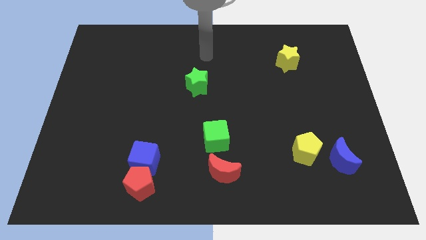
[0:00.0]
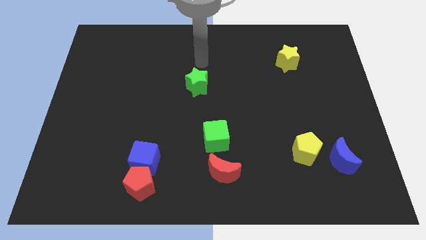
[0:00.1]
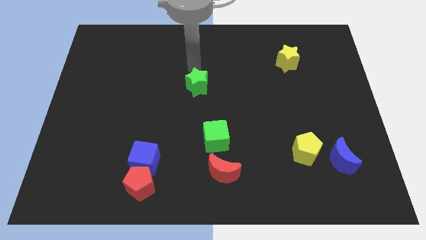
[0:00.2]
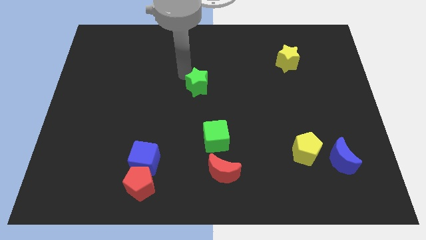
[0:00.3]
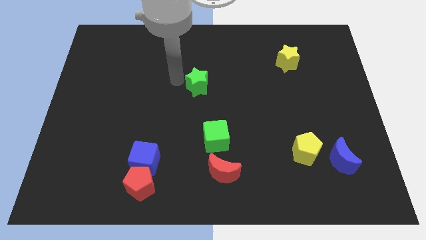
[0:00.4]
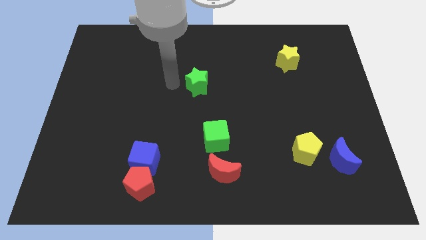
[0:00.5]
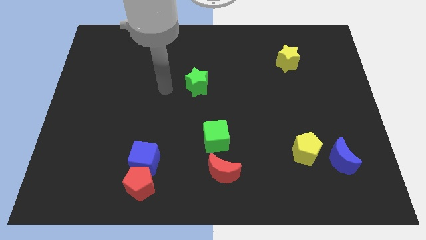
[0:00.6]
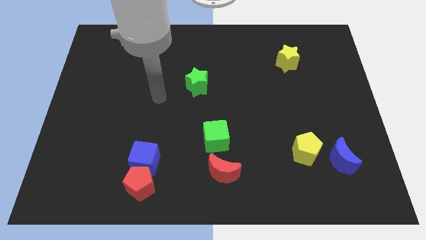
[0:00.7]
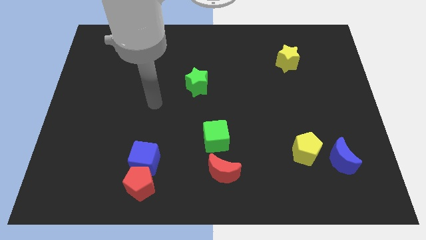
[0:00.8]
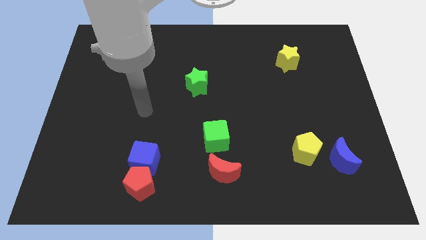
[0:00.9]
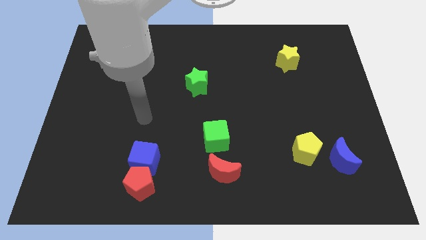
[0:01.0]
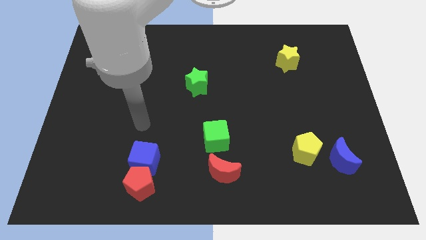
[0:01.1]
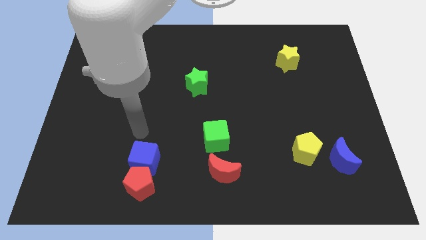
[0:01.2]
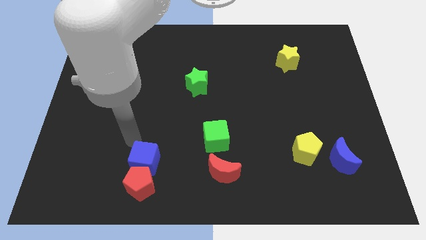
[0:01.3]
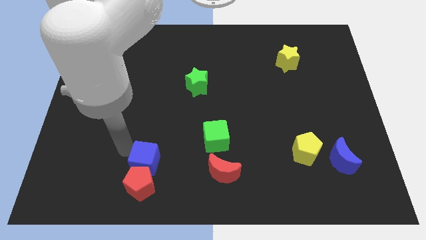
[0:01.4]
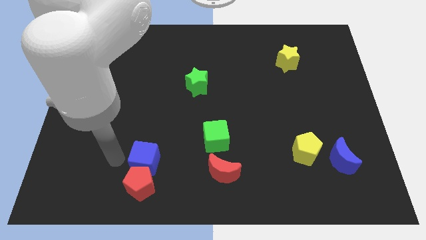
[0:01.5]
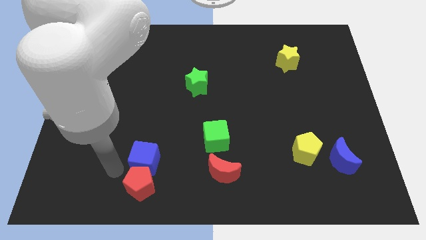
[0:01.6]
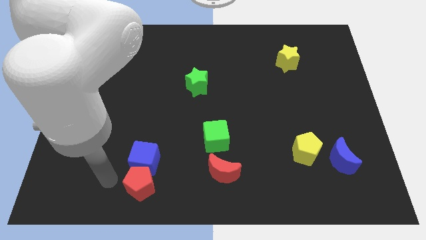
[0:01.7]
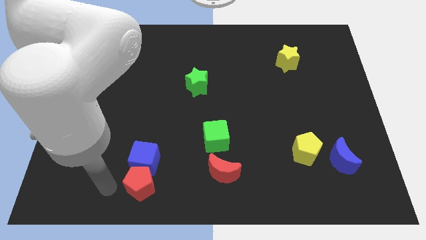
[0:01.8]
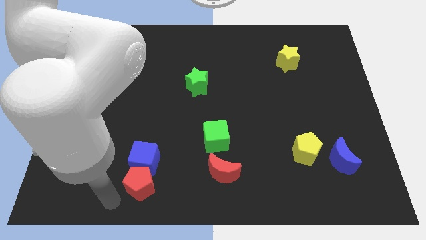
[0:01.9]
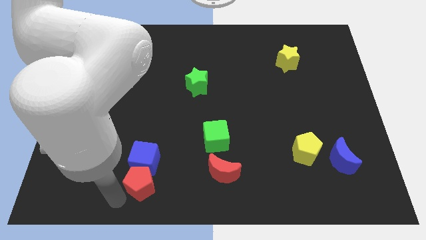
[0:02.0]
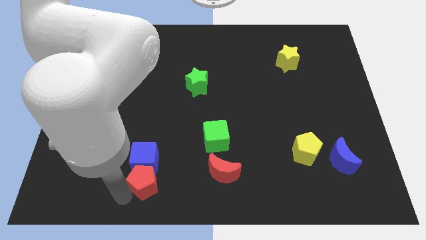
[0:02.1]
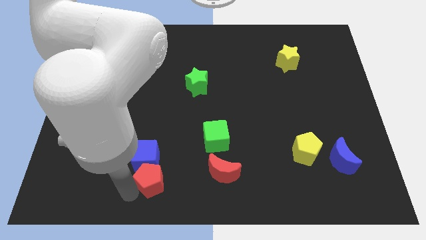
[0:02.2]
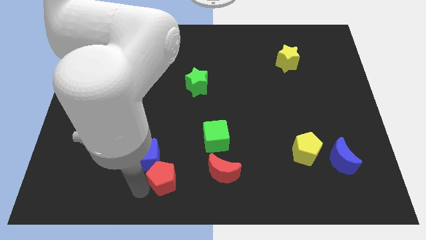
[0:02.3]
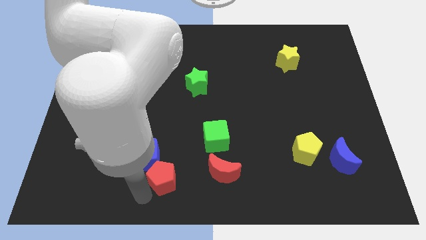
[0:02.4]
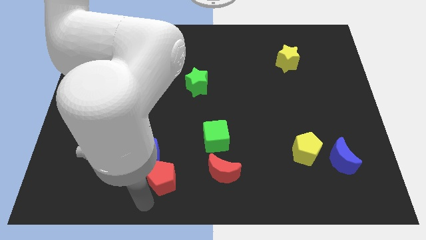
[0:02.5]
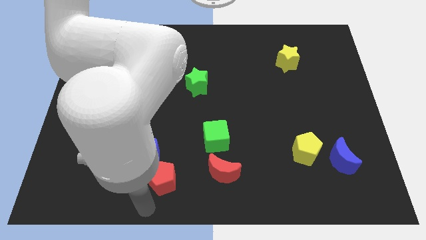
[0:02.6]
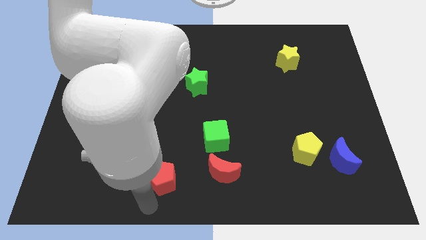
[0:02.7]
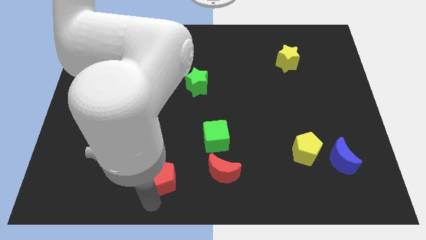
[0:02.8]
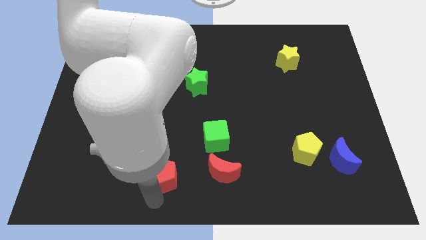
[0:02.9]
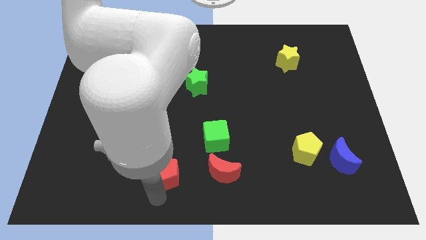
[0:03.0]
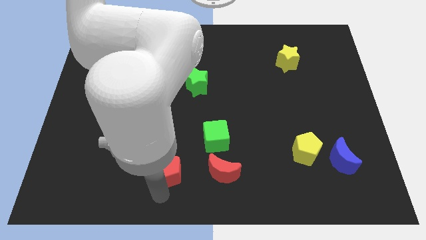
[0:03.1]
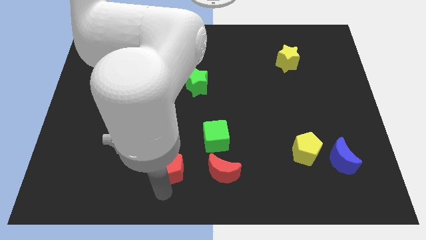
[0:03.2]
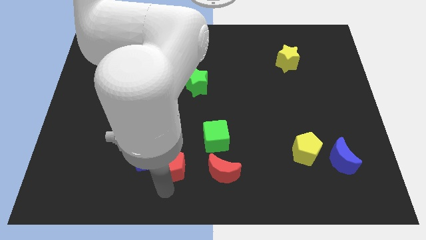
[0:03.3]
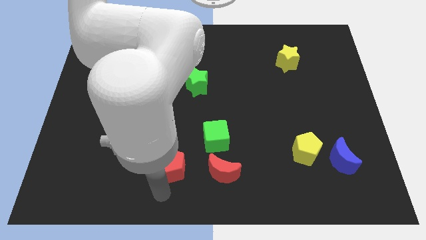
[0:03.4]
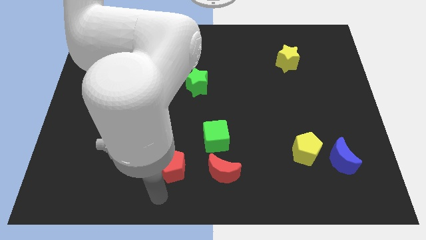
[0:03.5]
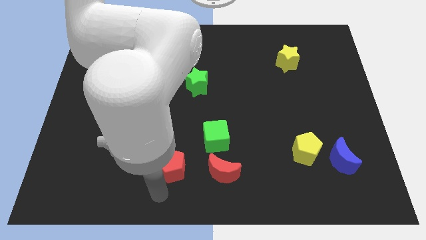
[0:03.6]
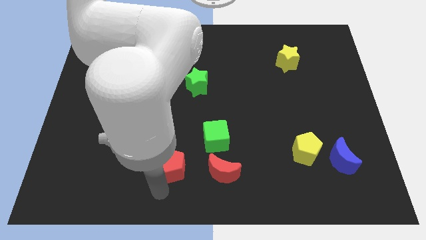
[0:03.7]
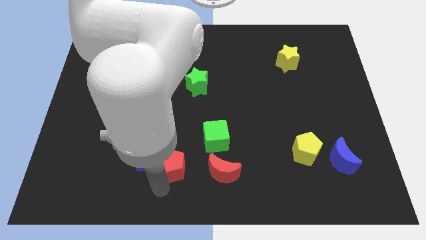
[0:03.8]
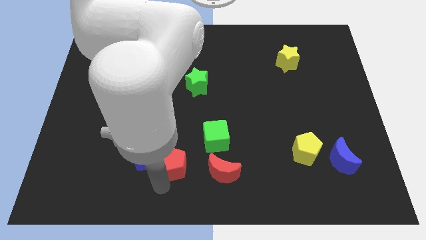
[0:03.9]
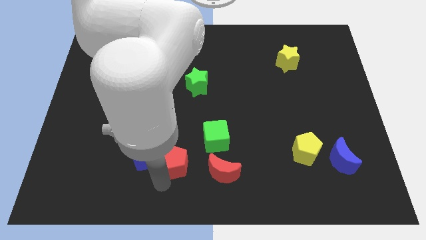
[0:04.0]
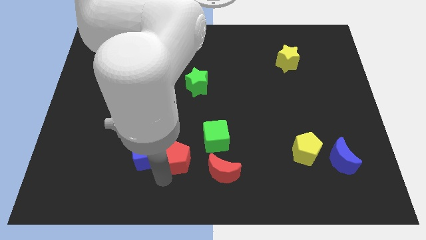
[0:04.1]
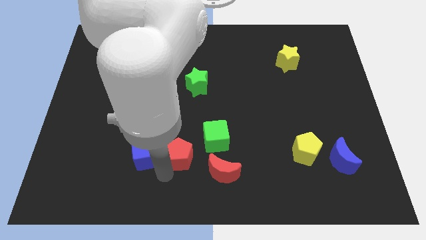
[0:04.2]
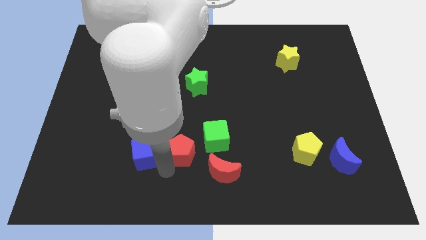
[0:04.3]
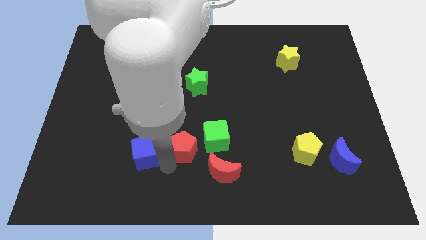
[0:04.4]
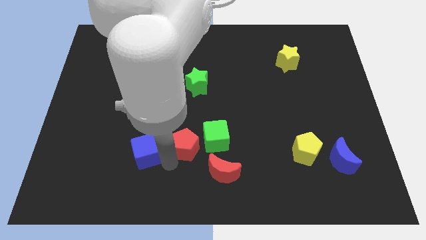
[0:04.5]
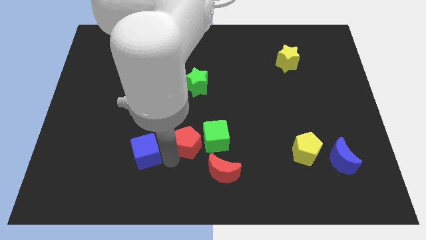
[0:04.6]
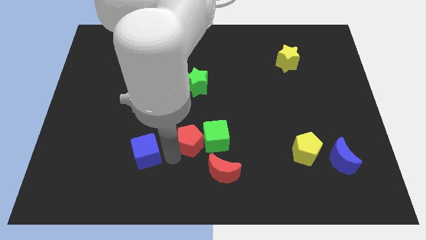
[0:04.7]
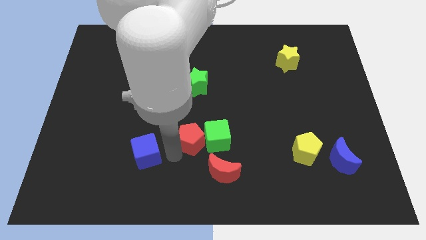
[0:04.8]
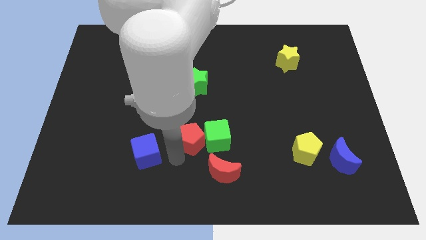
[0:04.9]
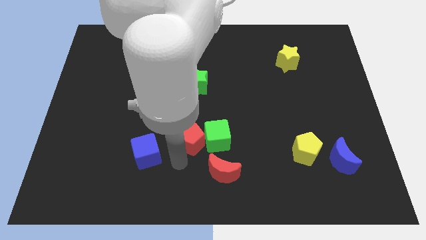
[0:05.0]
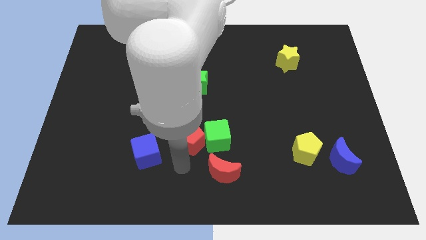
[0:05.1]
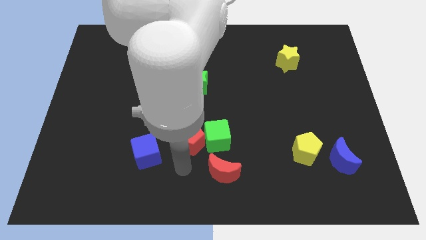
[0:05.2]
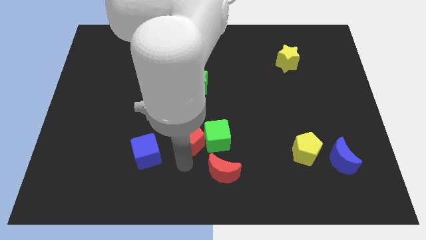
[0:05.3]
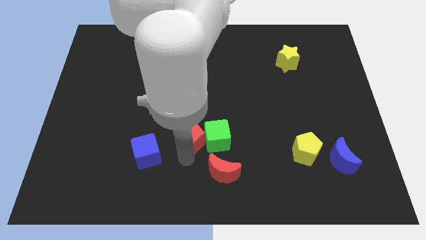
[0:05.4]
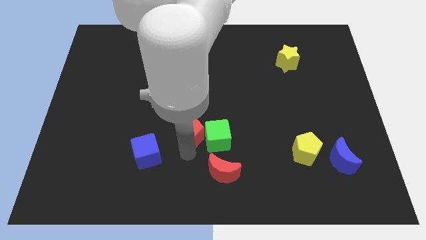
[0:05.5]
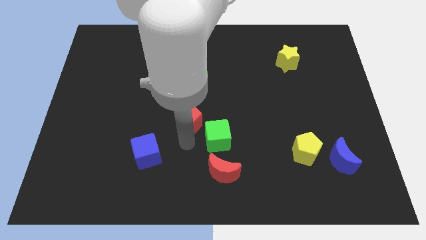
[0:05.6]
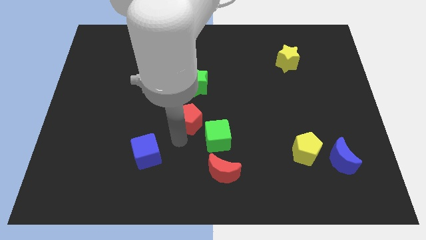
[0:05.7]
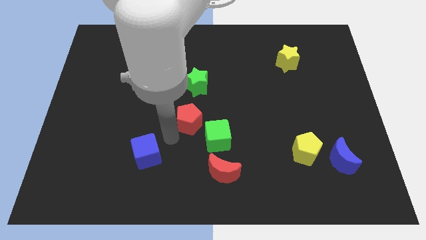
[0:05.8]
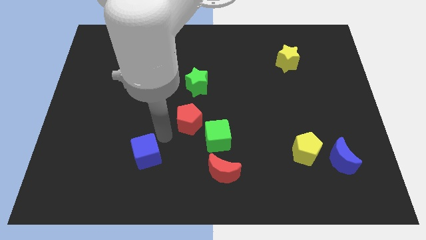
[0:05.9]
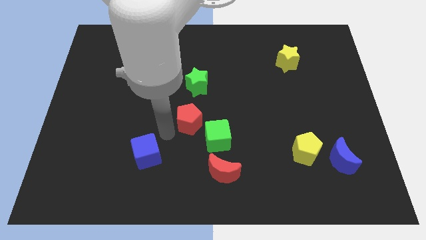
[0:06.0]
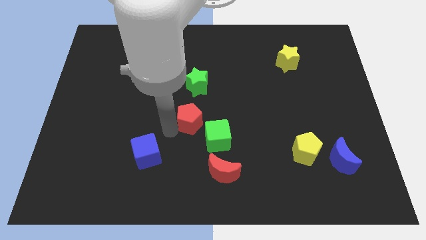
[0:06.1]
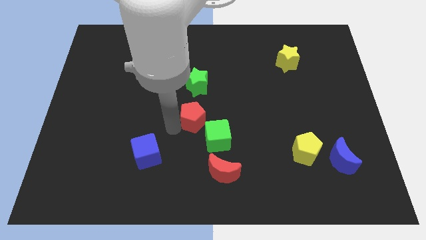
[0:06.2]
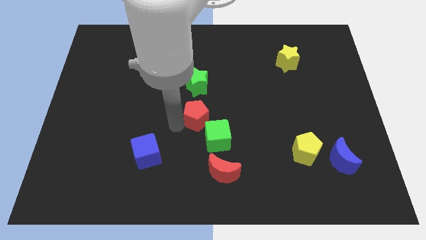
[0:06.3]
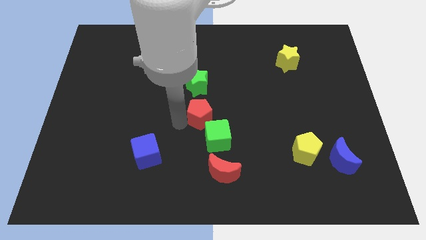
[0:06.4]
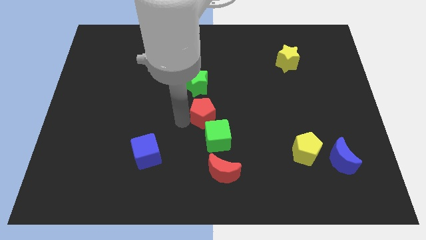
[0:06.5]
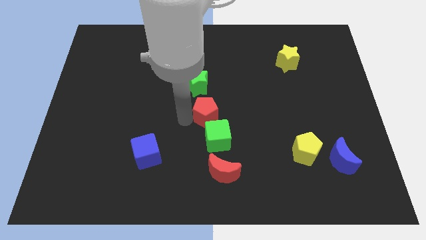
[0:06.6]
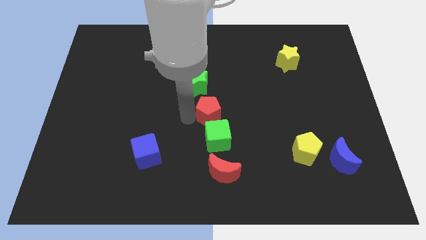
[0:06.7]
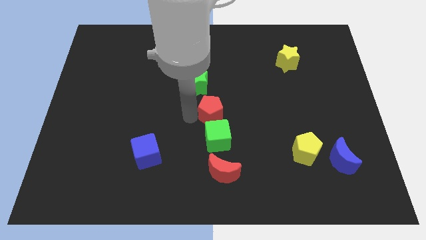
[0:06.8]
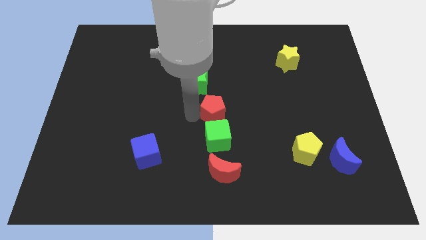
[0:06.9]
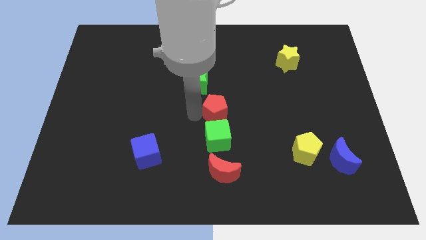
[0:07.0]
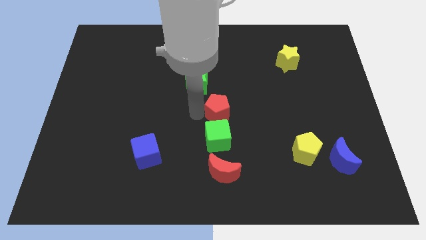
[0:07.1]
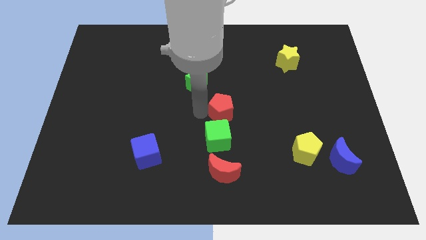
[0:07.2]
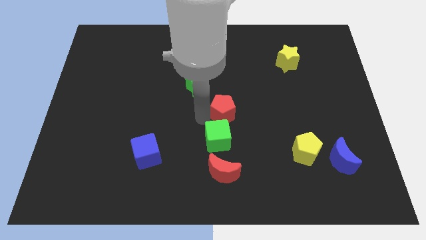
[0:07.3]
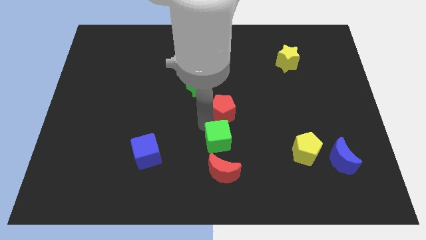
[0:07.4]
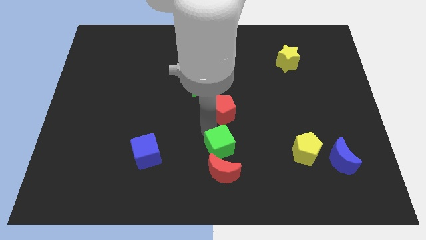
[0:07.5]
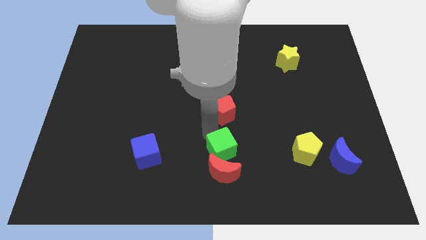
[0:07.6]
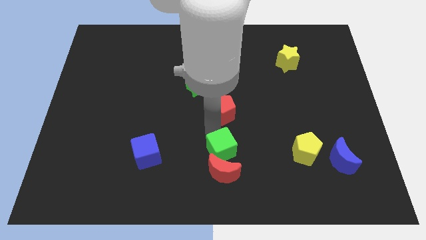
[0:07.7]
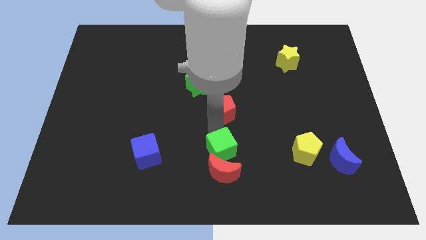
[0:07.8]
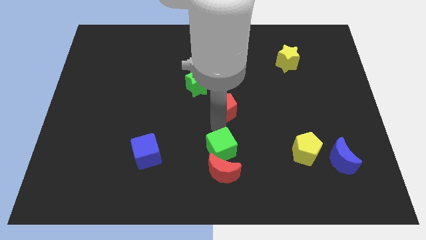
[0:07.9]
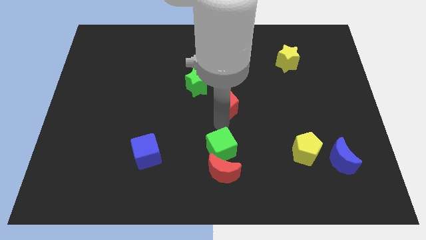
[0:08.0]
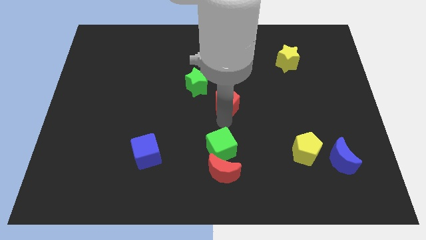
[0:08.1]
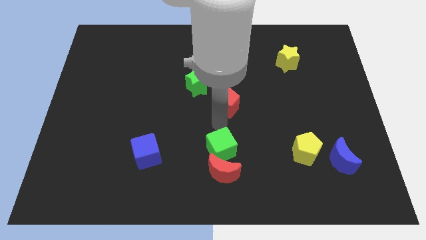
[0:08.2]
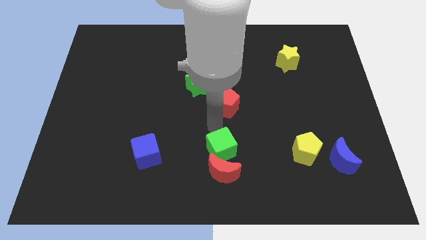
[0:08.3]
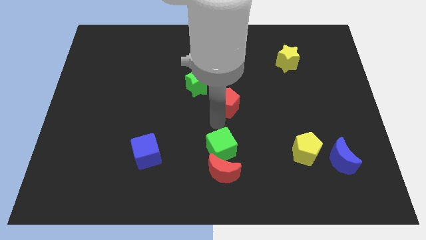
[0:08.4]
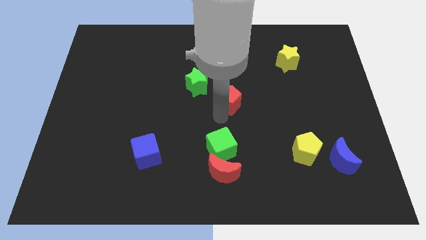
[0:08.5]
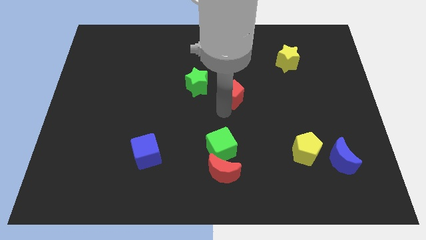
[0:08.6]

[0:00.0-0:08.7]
put the red pentagon just right of the green star
